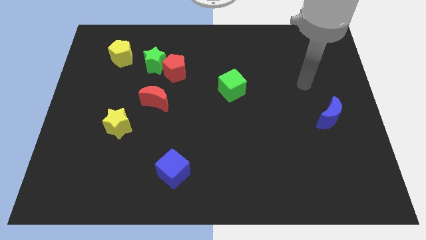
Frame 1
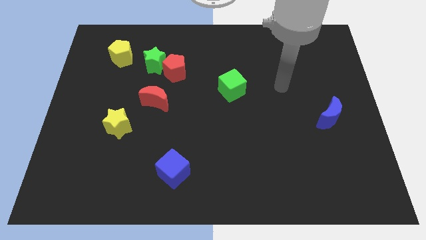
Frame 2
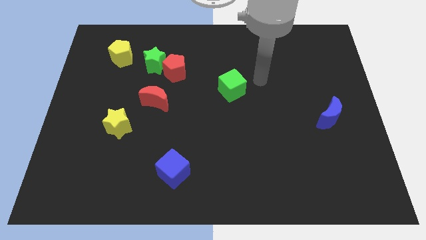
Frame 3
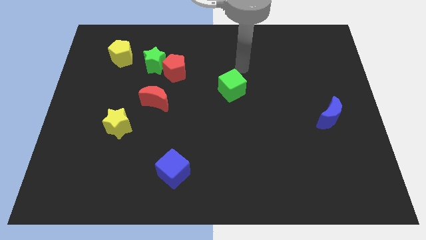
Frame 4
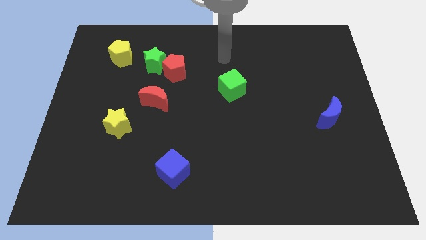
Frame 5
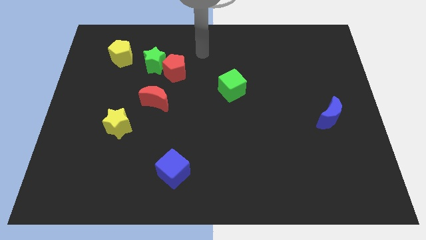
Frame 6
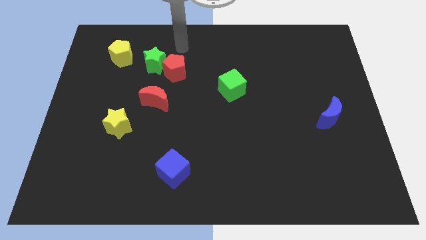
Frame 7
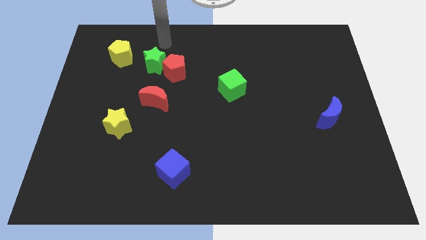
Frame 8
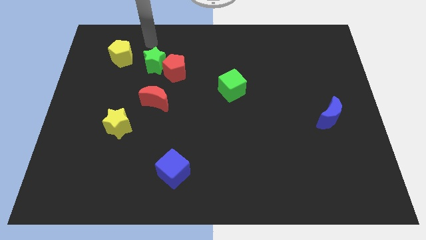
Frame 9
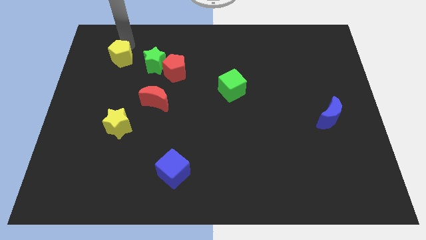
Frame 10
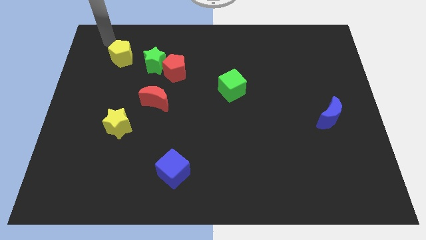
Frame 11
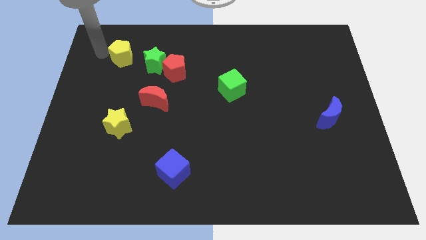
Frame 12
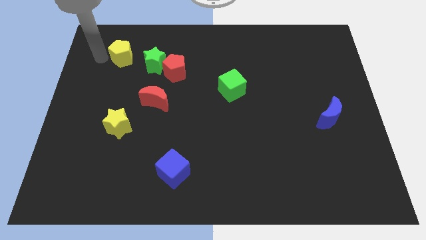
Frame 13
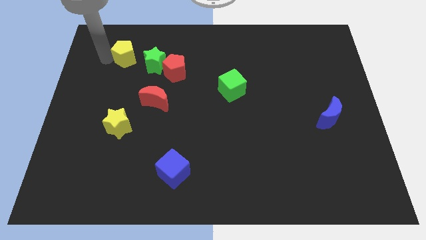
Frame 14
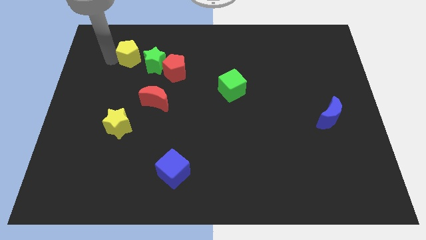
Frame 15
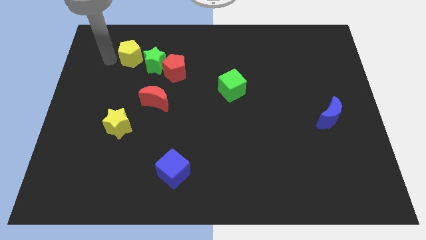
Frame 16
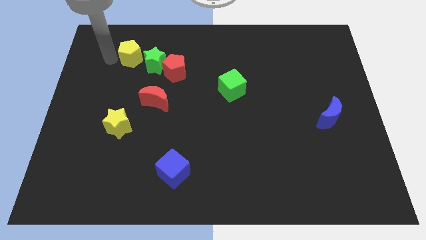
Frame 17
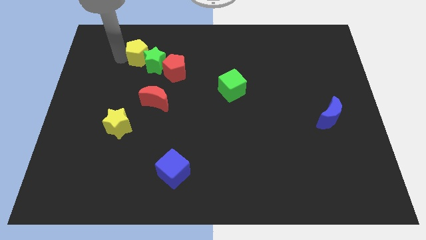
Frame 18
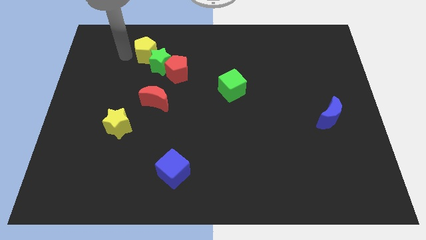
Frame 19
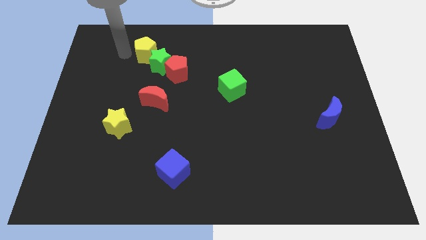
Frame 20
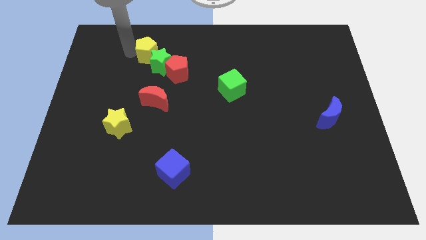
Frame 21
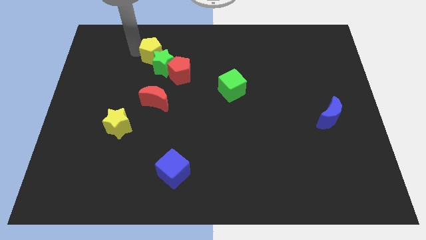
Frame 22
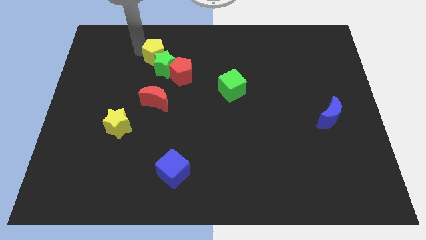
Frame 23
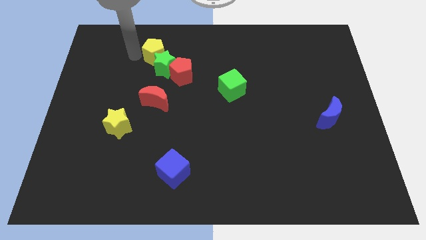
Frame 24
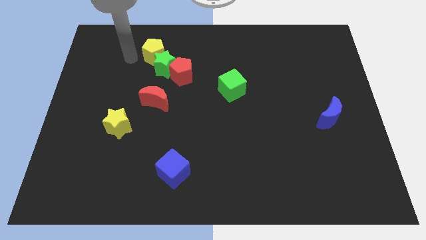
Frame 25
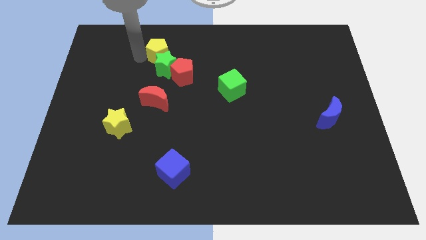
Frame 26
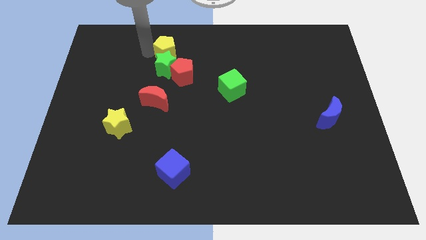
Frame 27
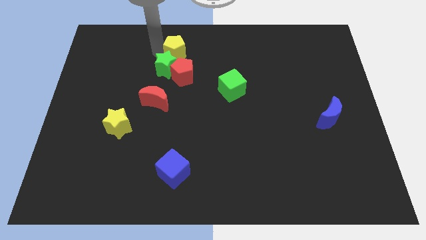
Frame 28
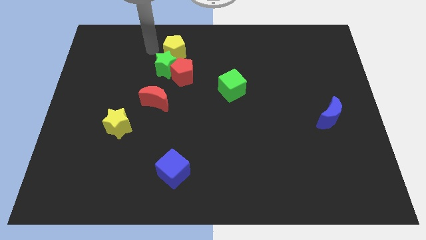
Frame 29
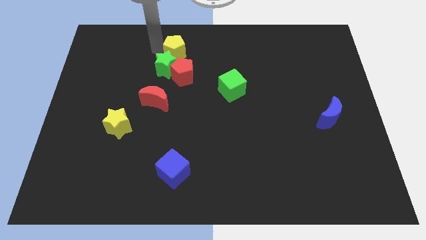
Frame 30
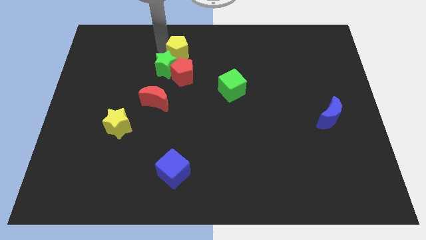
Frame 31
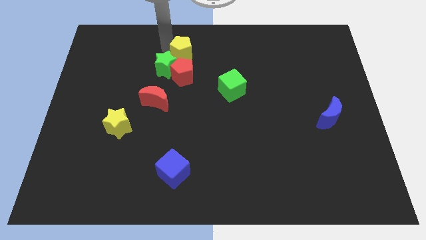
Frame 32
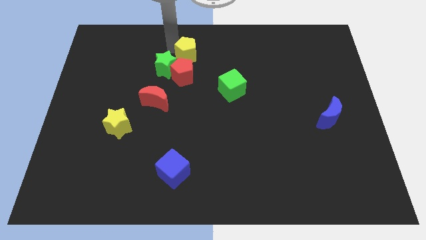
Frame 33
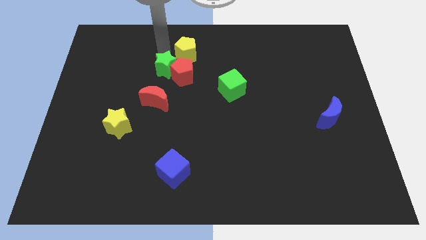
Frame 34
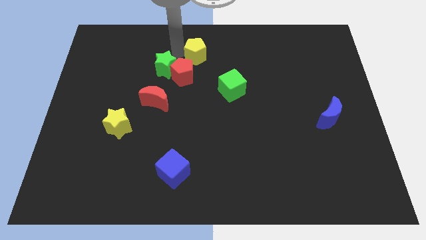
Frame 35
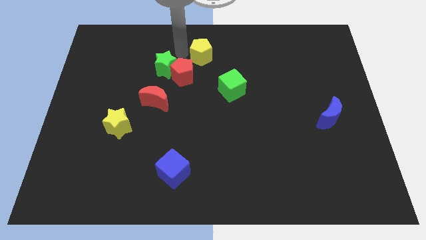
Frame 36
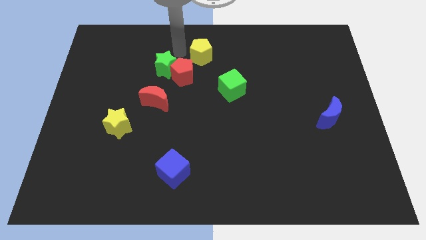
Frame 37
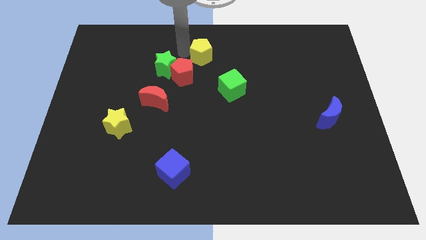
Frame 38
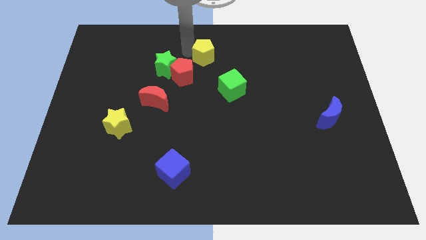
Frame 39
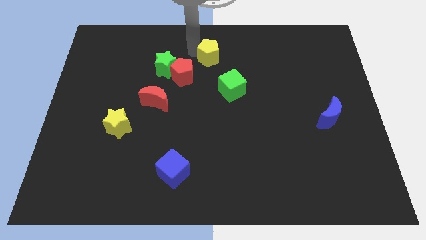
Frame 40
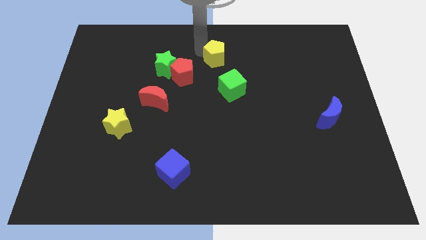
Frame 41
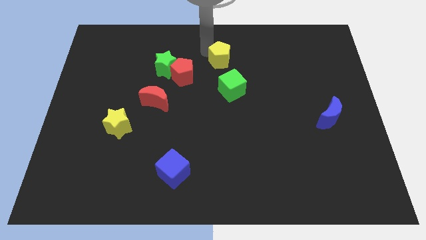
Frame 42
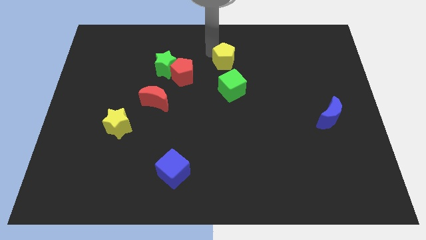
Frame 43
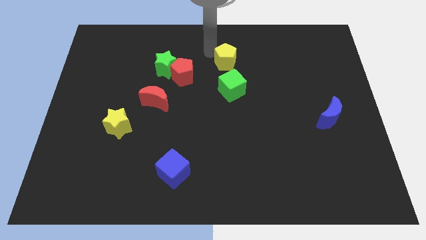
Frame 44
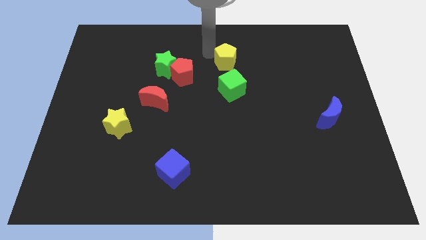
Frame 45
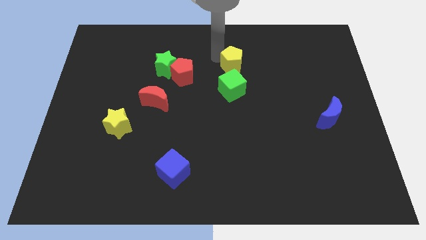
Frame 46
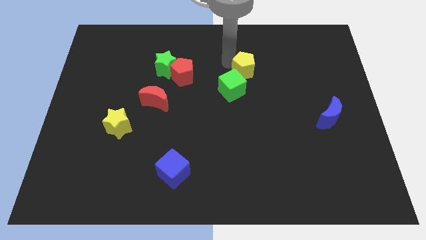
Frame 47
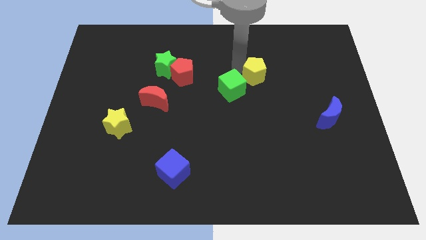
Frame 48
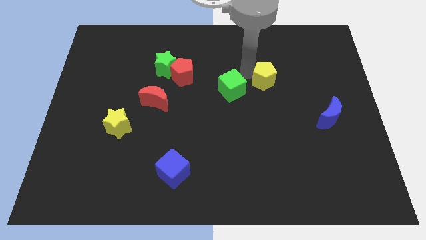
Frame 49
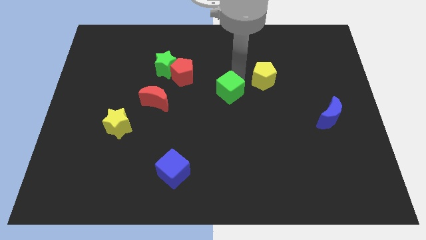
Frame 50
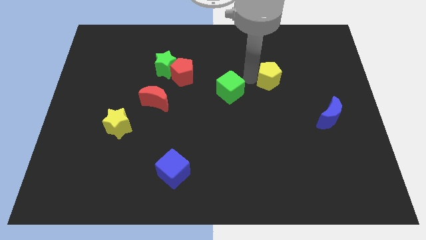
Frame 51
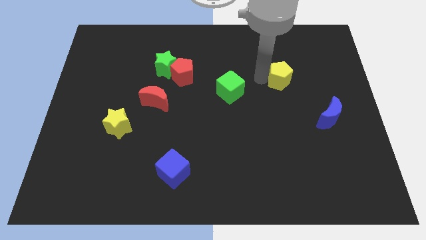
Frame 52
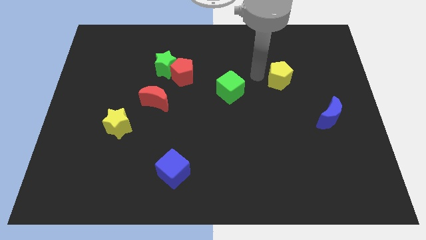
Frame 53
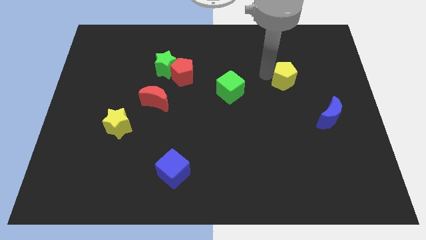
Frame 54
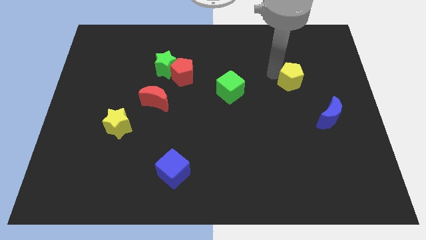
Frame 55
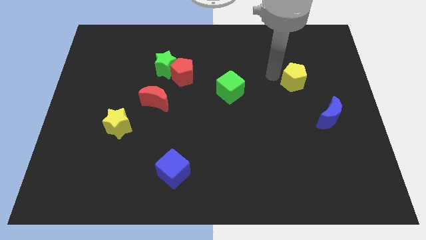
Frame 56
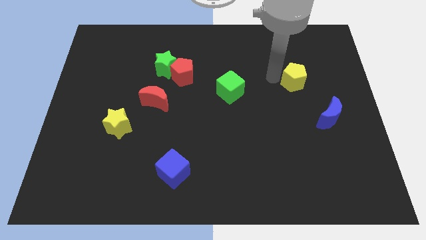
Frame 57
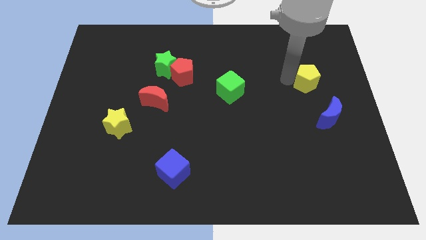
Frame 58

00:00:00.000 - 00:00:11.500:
move the yellow pentagon to the top of the blue moon

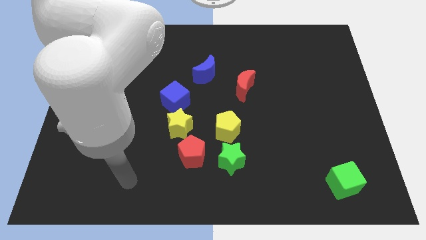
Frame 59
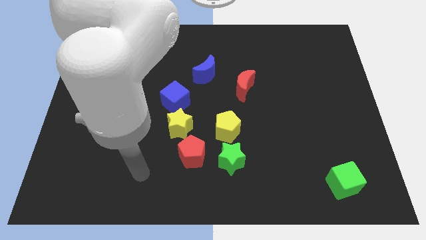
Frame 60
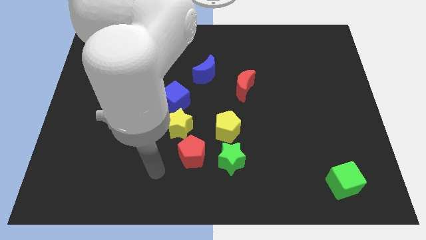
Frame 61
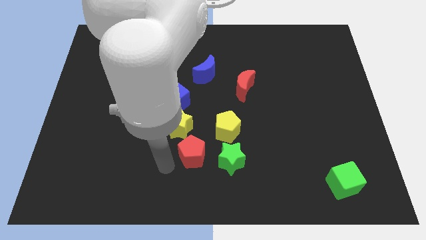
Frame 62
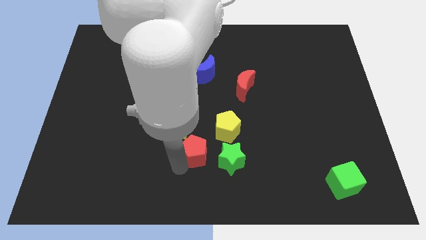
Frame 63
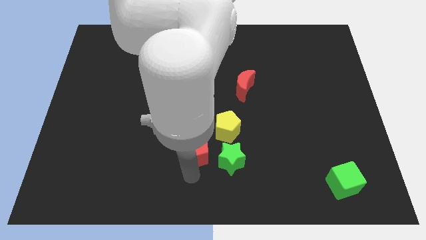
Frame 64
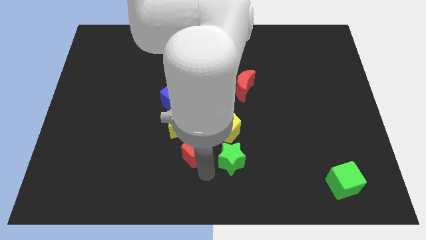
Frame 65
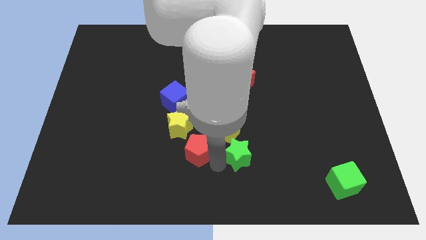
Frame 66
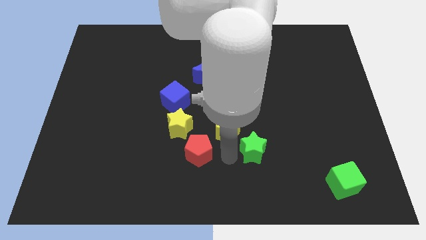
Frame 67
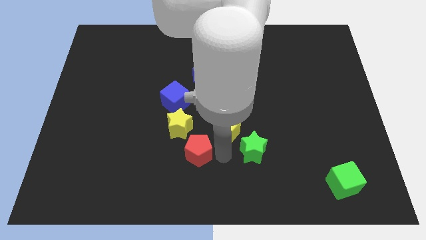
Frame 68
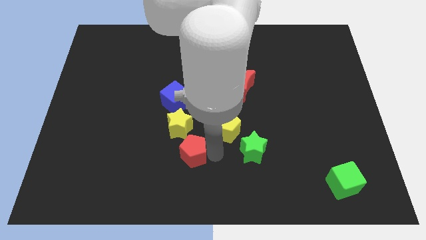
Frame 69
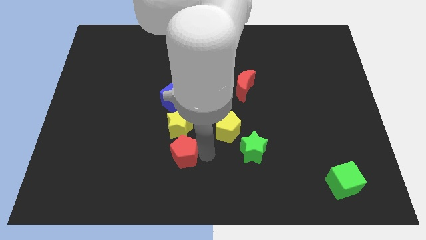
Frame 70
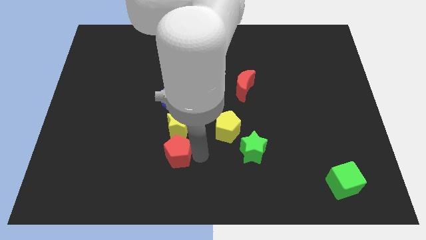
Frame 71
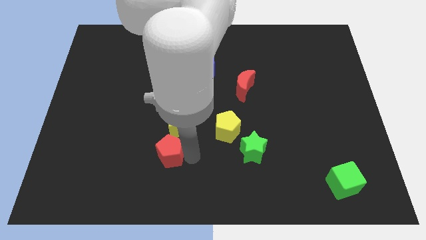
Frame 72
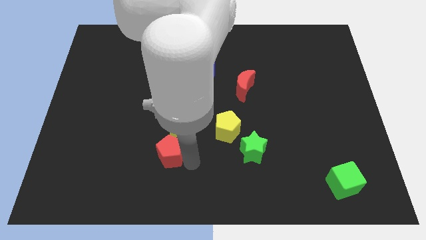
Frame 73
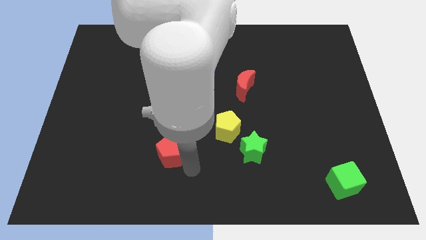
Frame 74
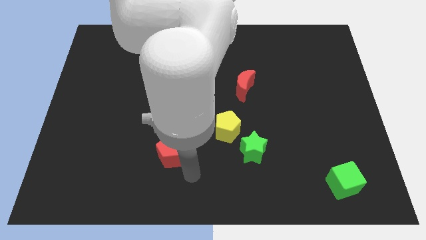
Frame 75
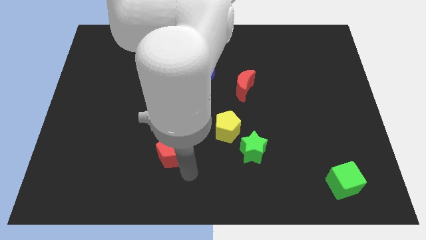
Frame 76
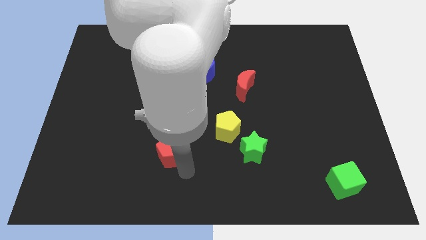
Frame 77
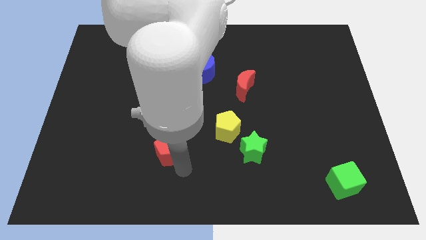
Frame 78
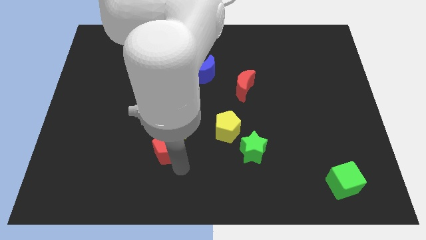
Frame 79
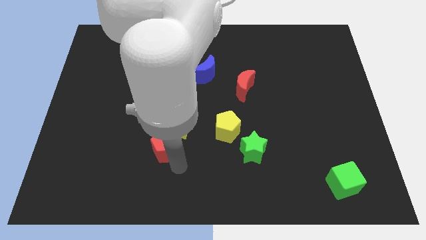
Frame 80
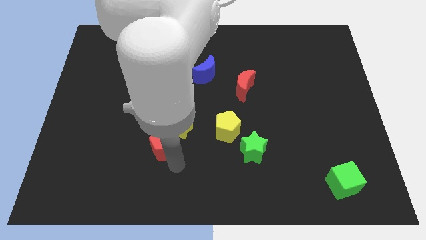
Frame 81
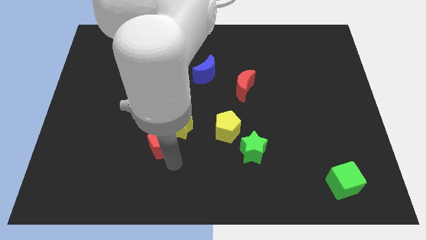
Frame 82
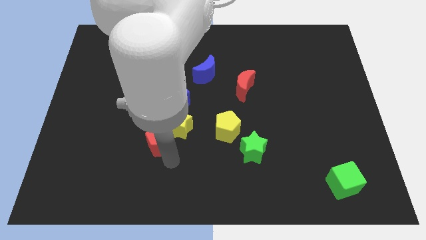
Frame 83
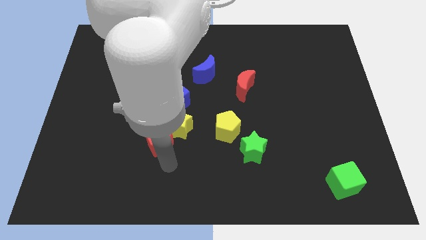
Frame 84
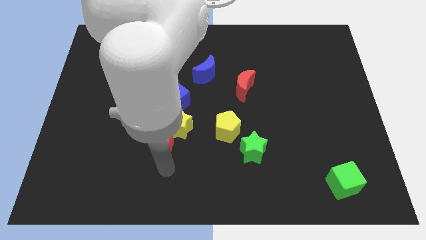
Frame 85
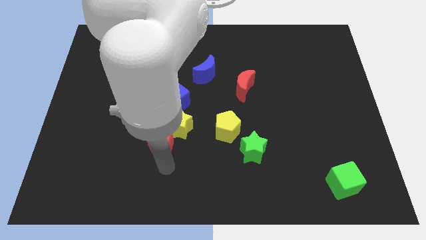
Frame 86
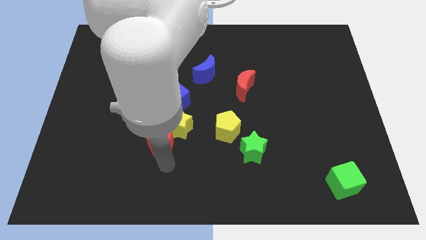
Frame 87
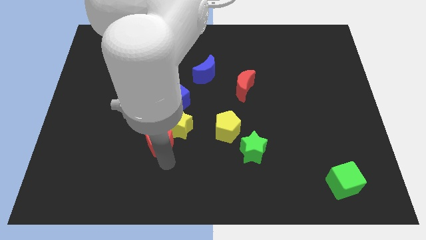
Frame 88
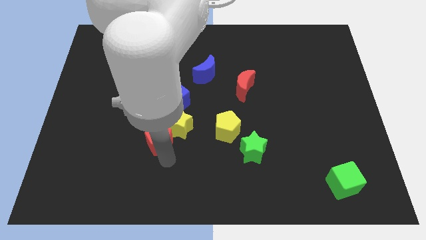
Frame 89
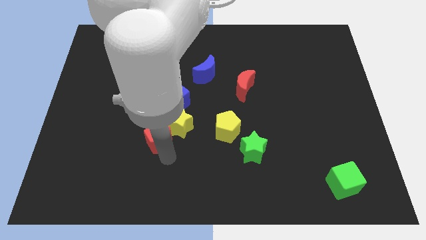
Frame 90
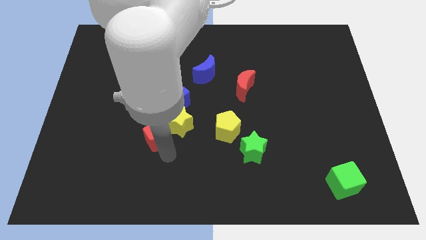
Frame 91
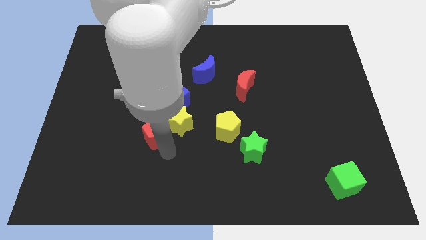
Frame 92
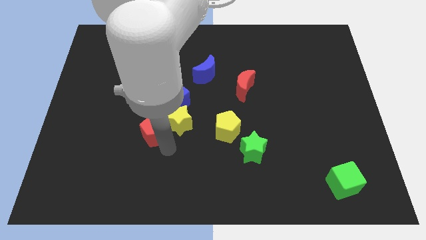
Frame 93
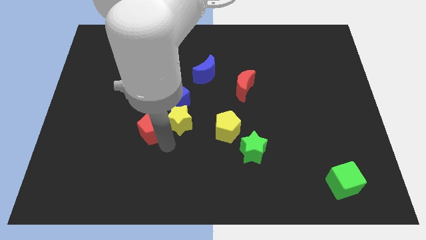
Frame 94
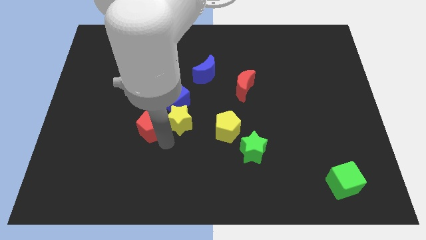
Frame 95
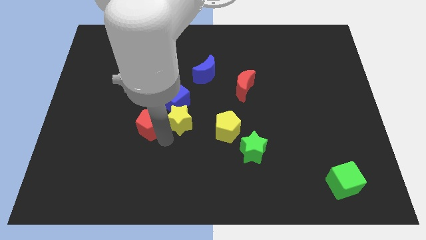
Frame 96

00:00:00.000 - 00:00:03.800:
slide the red pentagon to the top left side of the yellow star
